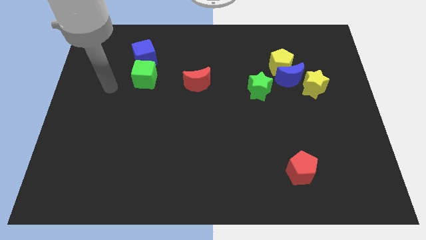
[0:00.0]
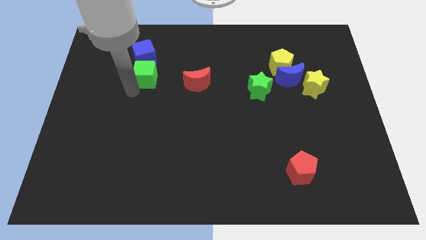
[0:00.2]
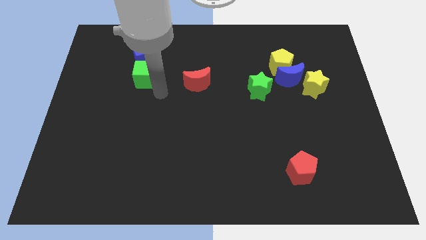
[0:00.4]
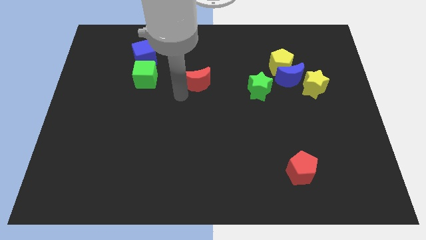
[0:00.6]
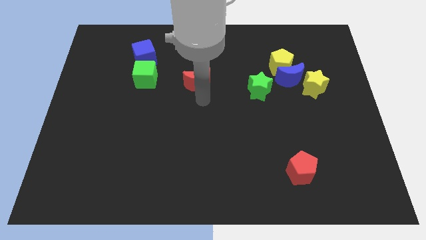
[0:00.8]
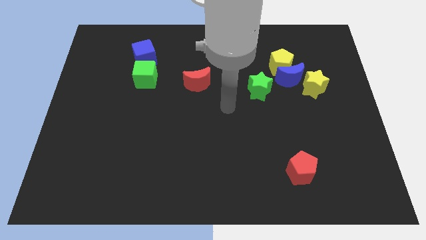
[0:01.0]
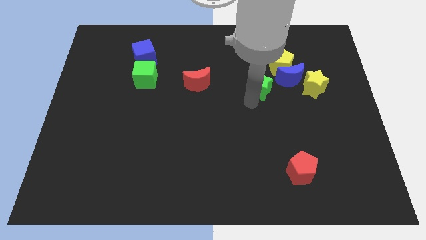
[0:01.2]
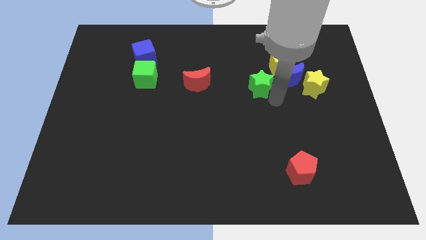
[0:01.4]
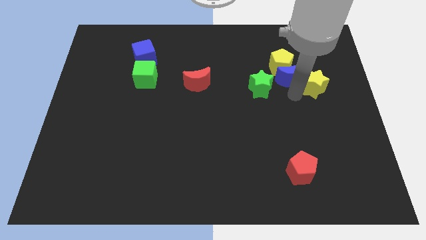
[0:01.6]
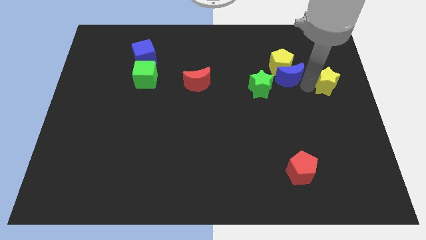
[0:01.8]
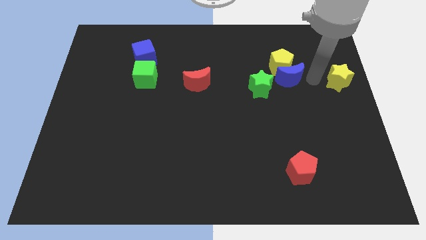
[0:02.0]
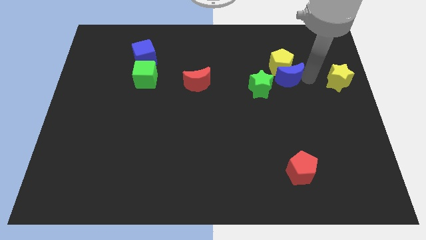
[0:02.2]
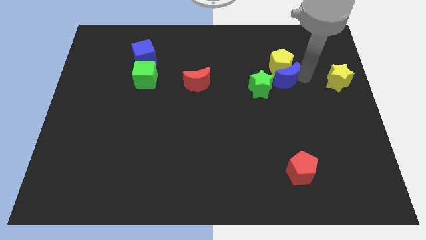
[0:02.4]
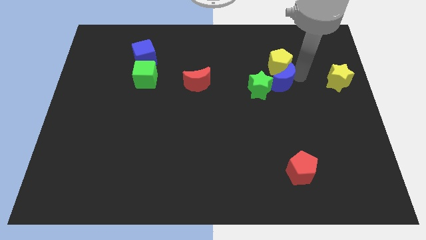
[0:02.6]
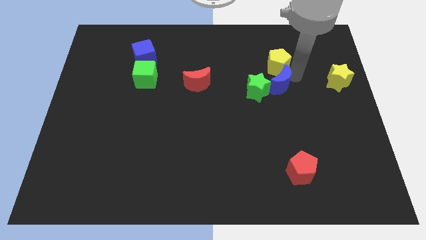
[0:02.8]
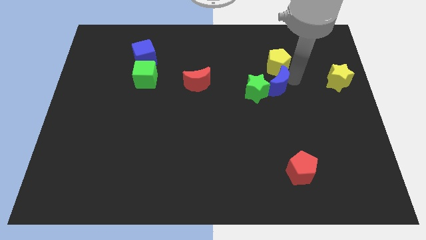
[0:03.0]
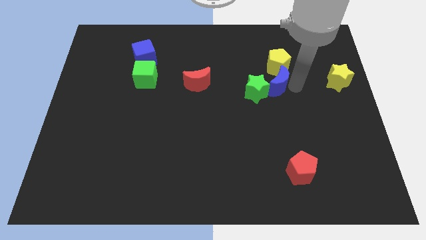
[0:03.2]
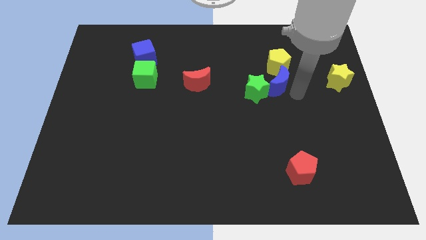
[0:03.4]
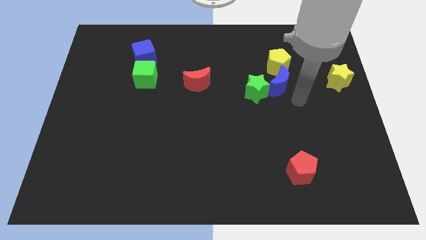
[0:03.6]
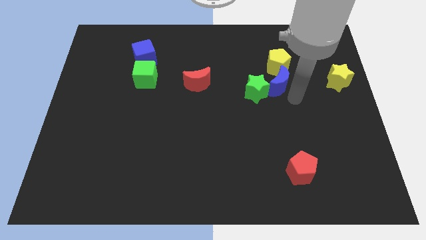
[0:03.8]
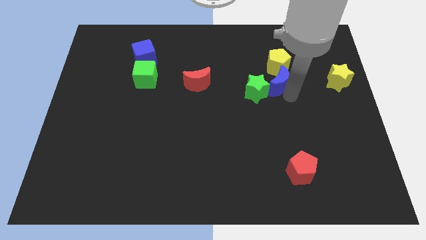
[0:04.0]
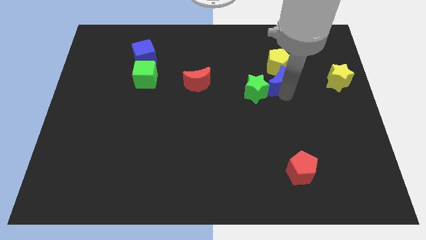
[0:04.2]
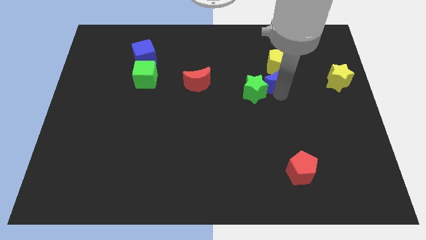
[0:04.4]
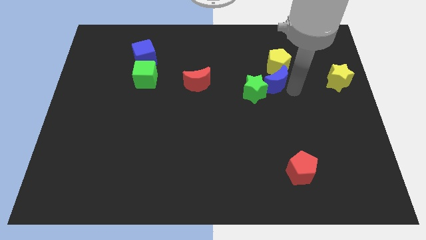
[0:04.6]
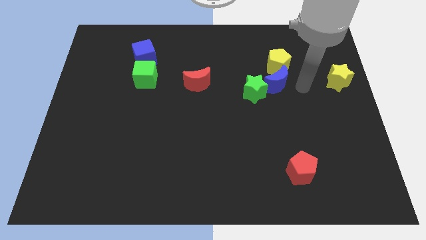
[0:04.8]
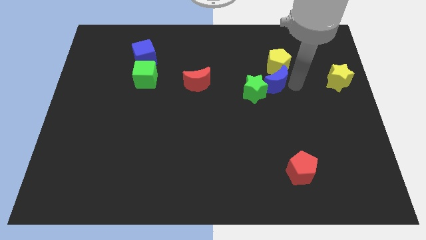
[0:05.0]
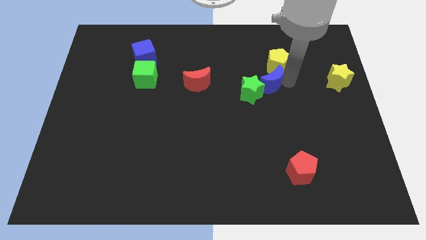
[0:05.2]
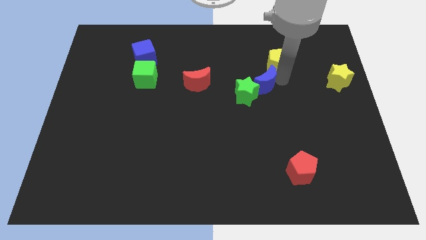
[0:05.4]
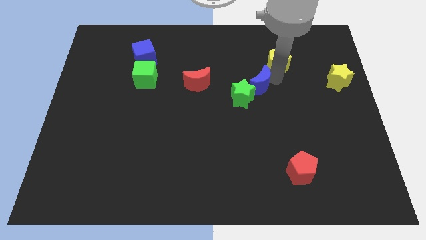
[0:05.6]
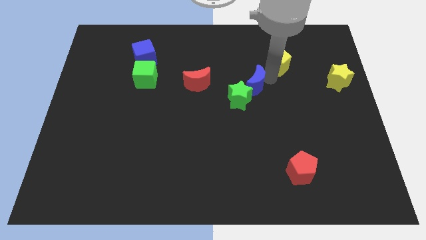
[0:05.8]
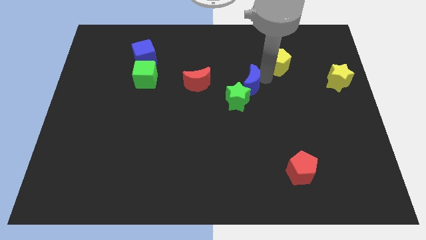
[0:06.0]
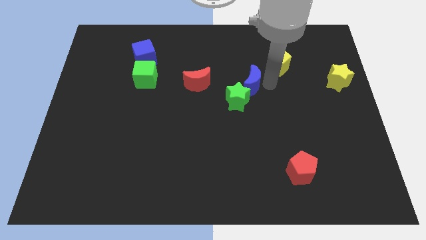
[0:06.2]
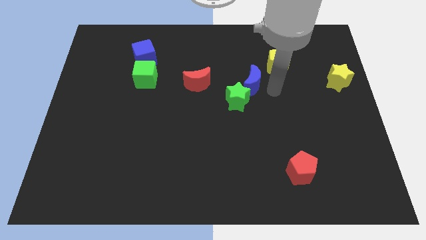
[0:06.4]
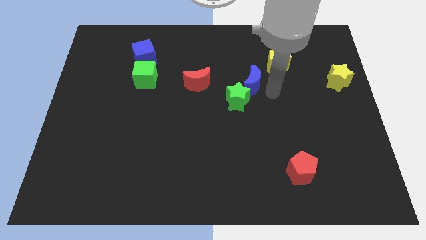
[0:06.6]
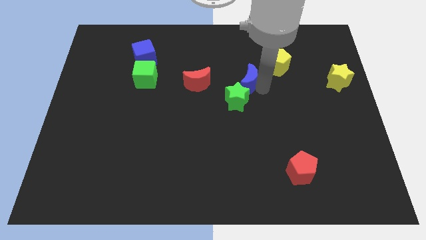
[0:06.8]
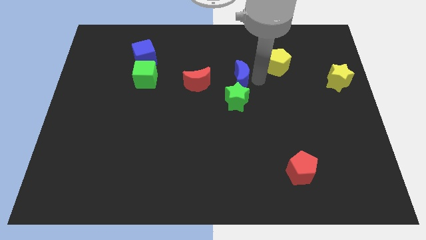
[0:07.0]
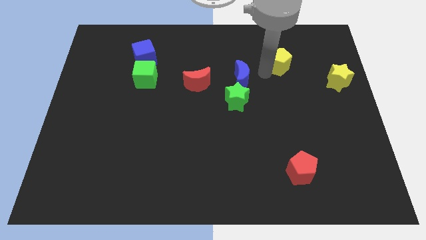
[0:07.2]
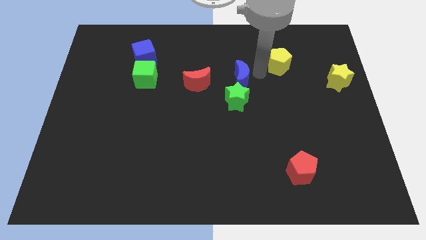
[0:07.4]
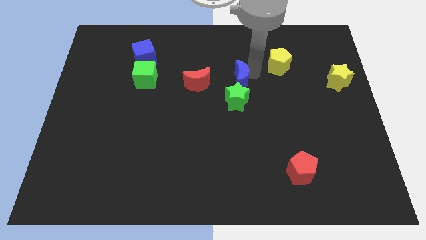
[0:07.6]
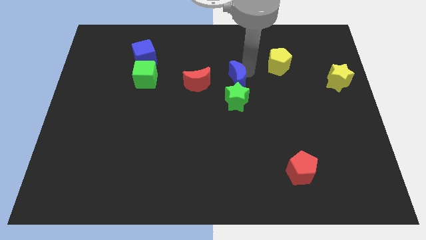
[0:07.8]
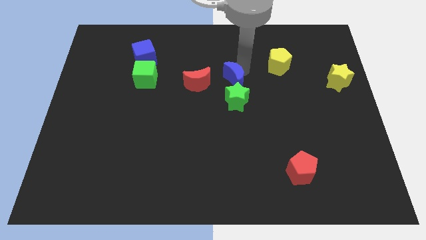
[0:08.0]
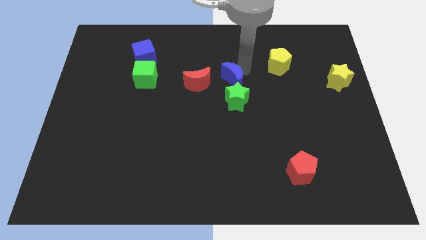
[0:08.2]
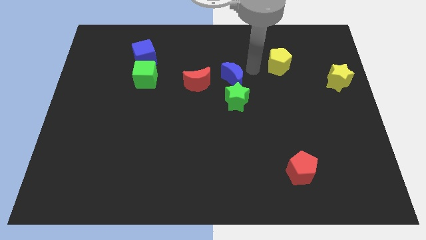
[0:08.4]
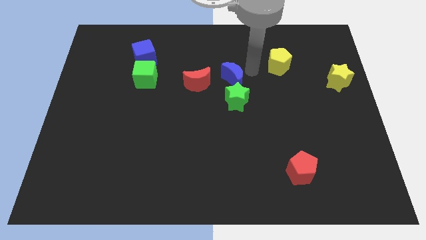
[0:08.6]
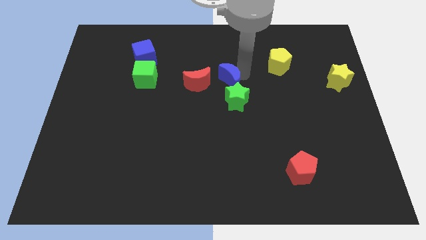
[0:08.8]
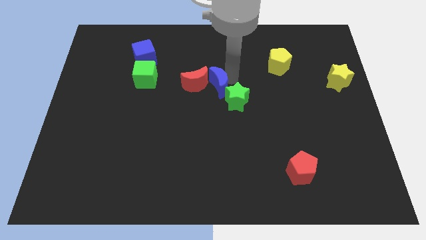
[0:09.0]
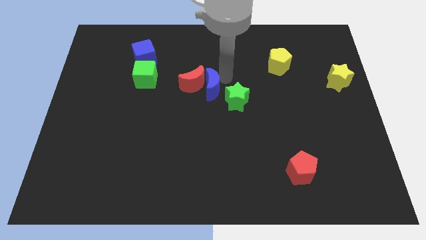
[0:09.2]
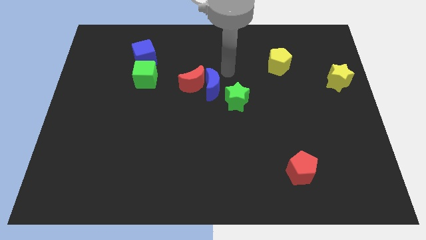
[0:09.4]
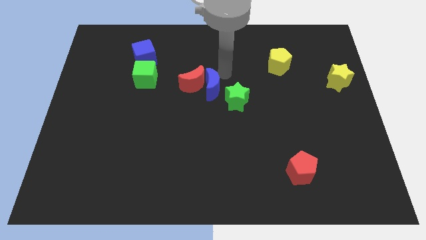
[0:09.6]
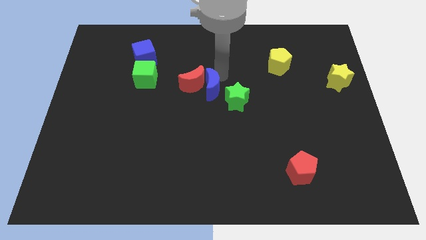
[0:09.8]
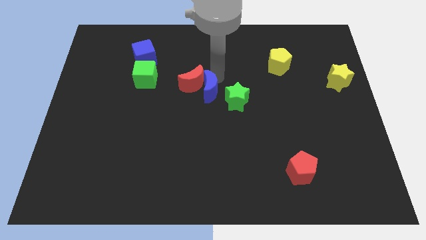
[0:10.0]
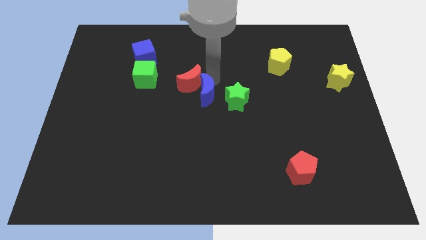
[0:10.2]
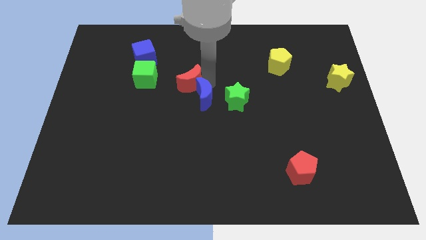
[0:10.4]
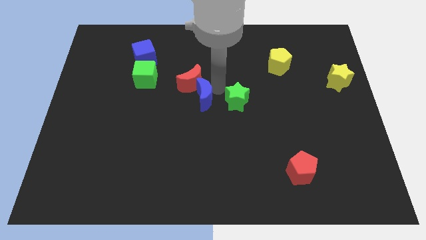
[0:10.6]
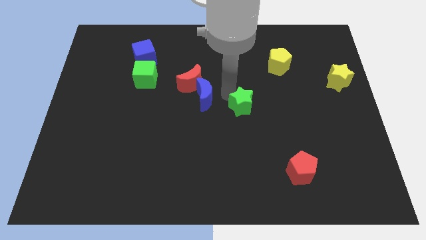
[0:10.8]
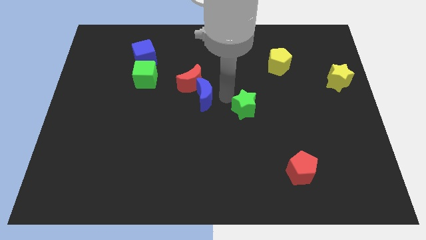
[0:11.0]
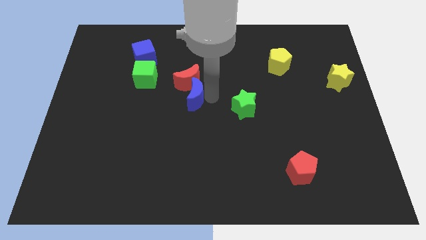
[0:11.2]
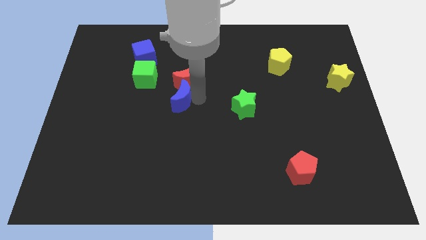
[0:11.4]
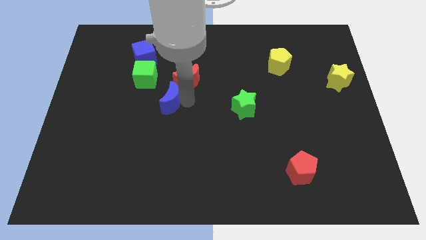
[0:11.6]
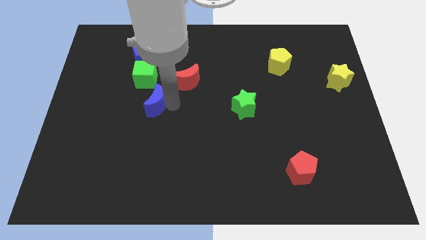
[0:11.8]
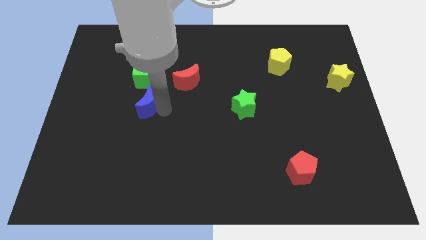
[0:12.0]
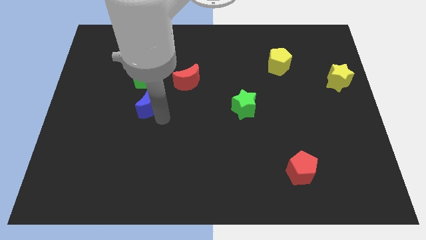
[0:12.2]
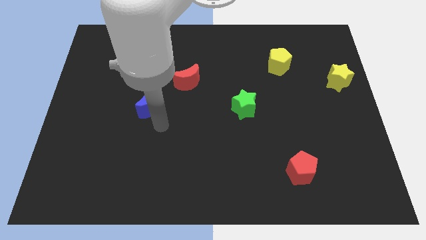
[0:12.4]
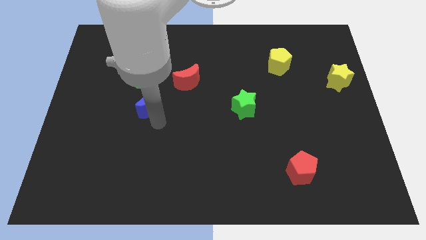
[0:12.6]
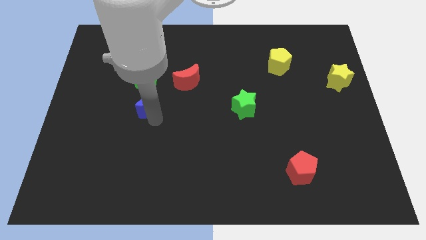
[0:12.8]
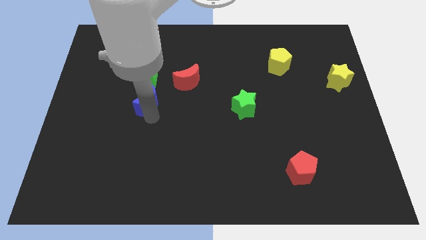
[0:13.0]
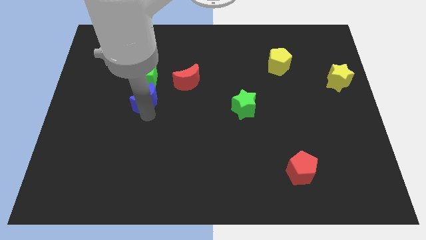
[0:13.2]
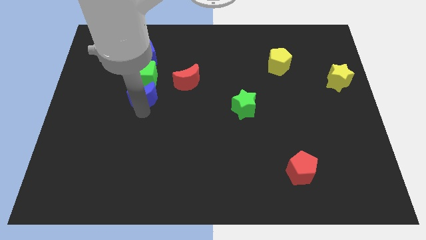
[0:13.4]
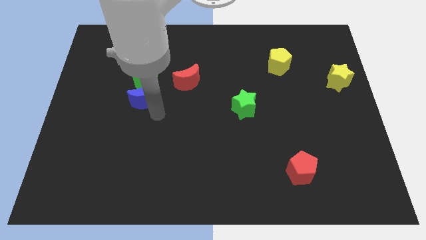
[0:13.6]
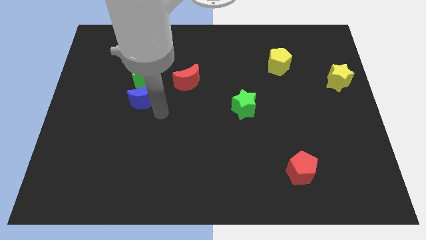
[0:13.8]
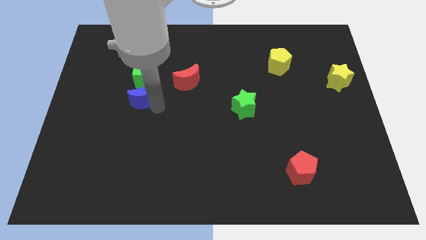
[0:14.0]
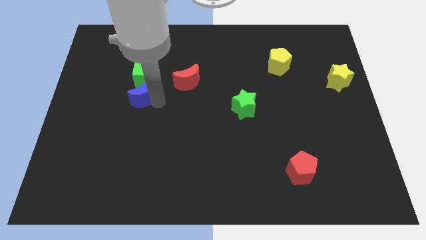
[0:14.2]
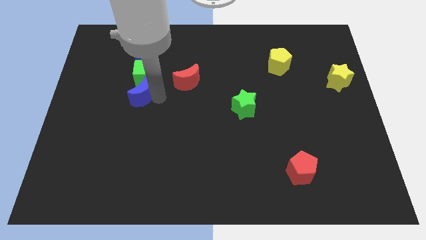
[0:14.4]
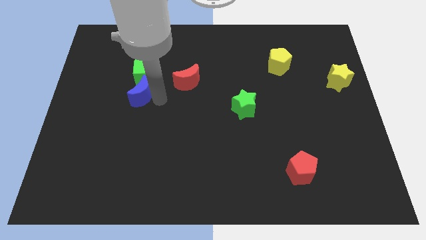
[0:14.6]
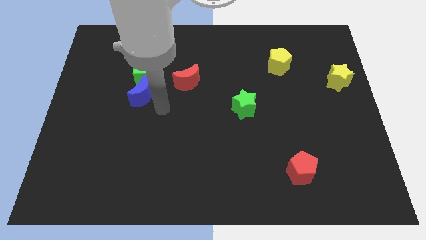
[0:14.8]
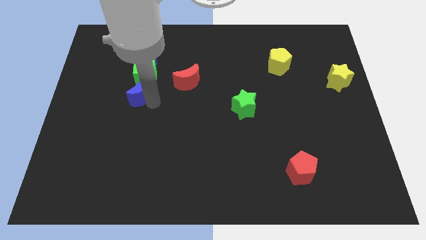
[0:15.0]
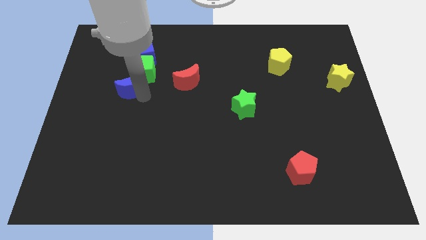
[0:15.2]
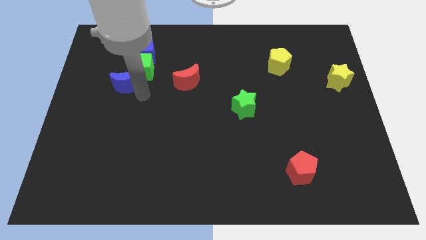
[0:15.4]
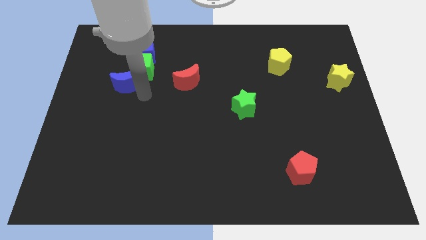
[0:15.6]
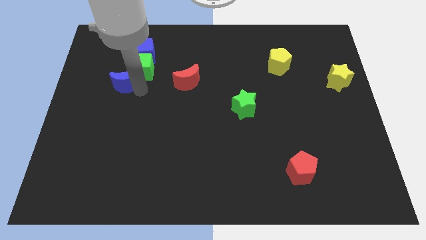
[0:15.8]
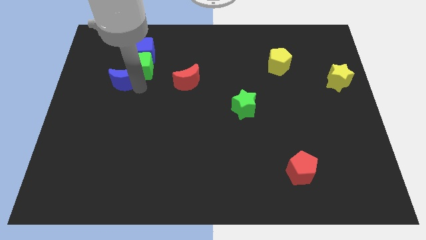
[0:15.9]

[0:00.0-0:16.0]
put the blue moon to the left of the green cube
